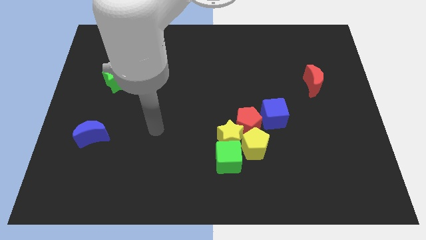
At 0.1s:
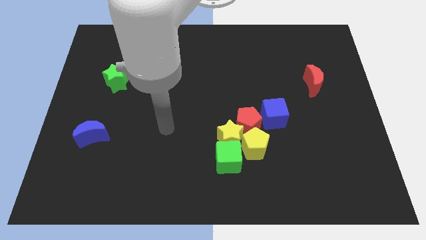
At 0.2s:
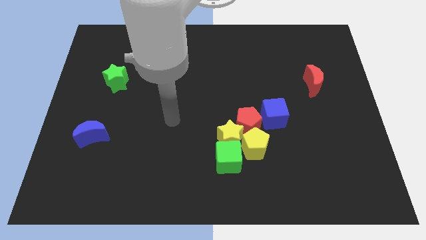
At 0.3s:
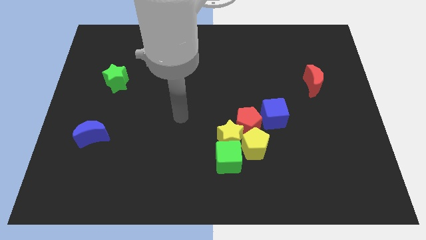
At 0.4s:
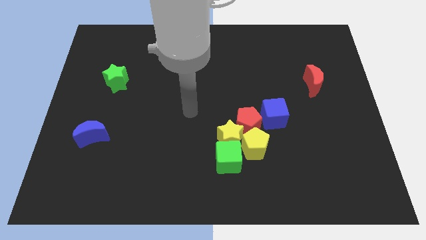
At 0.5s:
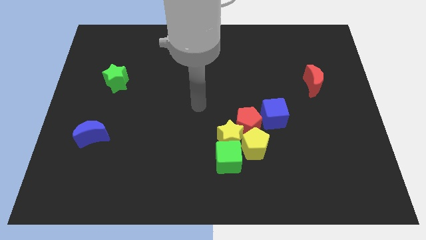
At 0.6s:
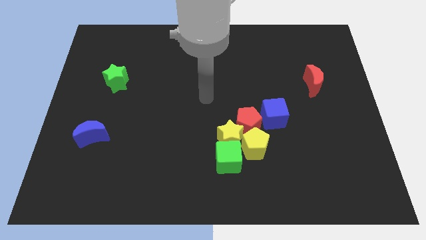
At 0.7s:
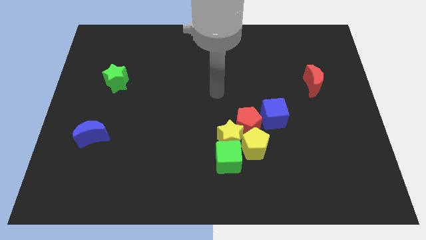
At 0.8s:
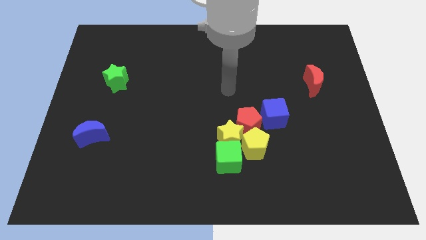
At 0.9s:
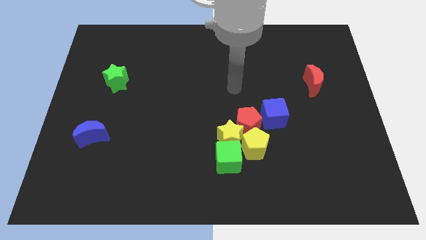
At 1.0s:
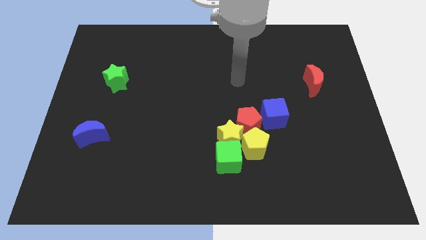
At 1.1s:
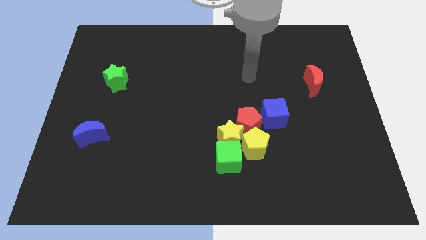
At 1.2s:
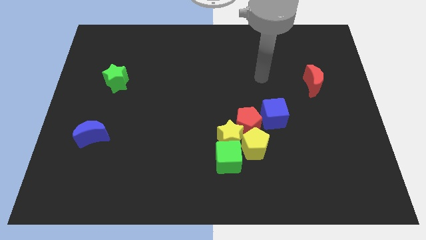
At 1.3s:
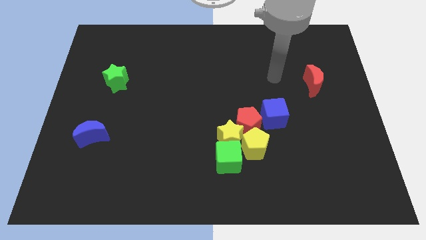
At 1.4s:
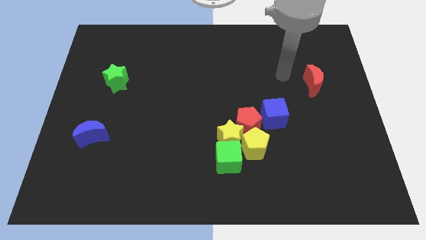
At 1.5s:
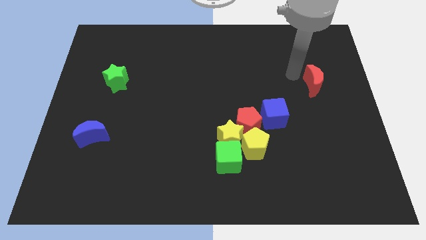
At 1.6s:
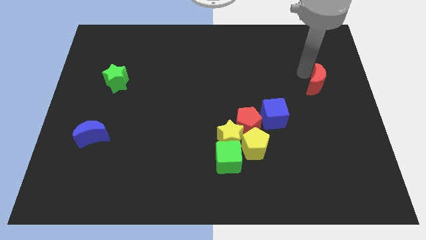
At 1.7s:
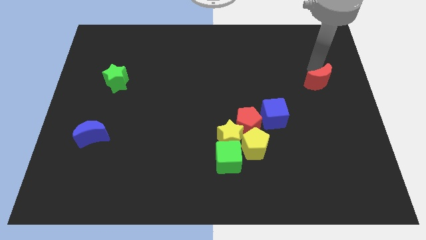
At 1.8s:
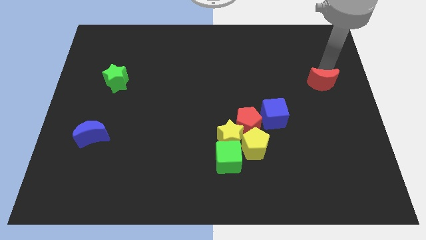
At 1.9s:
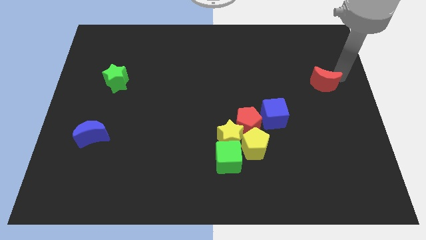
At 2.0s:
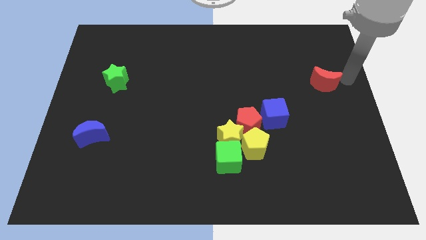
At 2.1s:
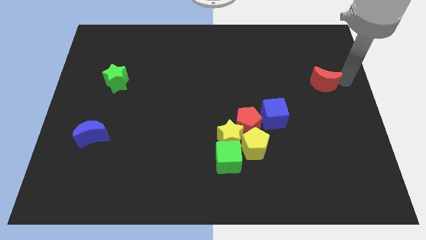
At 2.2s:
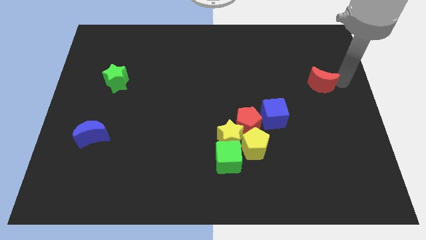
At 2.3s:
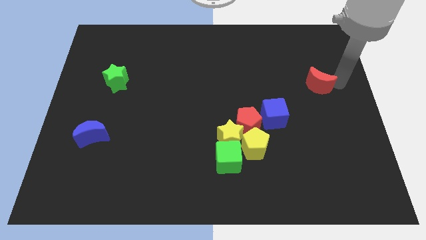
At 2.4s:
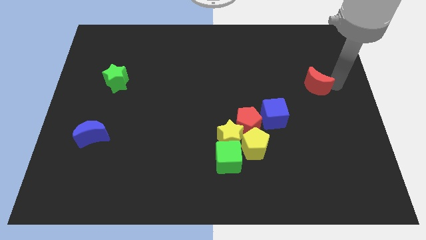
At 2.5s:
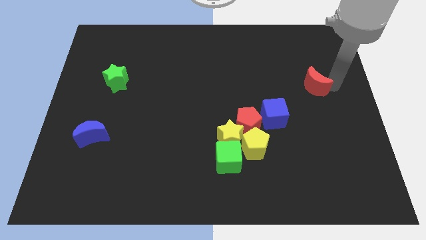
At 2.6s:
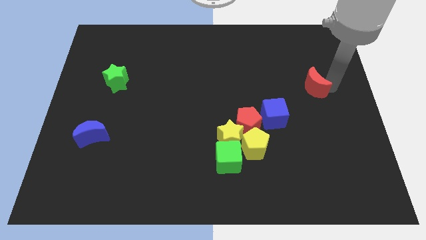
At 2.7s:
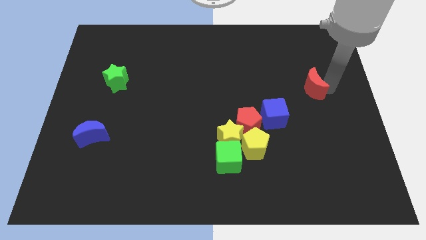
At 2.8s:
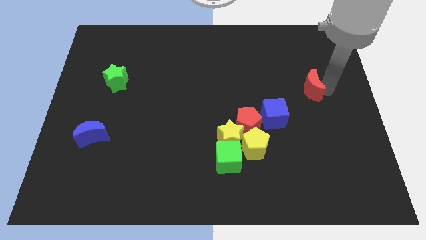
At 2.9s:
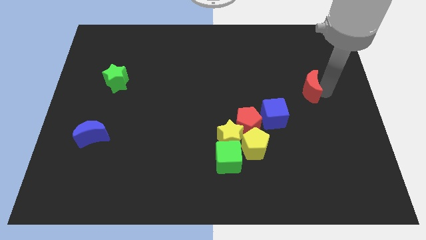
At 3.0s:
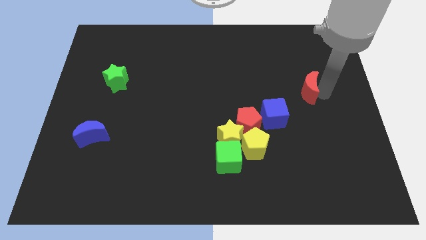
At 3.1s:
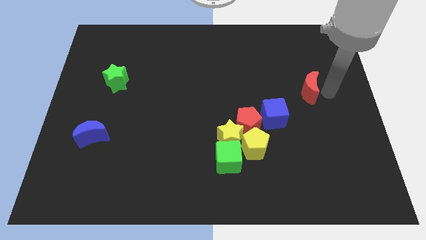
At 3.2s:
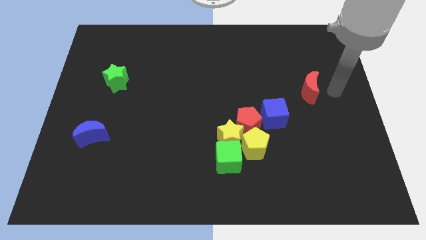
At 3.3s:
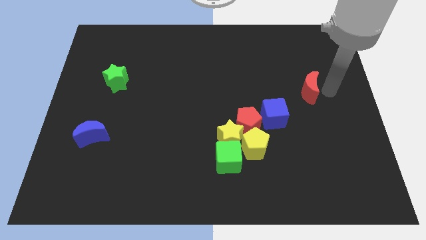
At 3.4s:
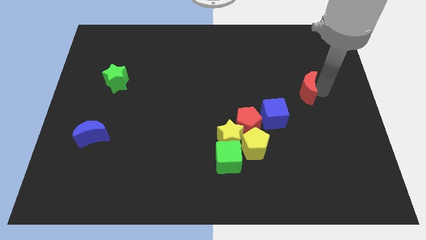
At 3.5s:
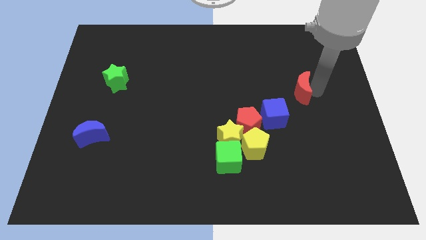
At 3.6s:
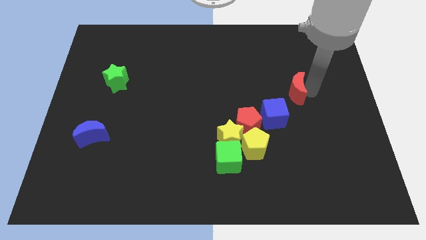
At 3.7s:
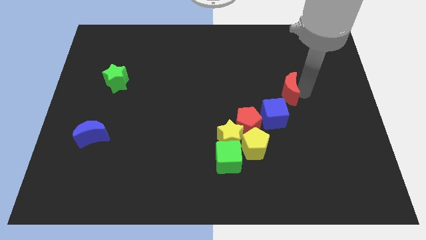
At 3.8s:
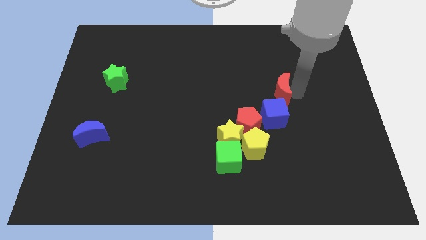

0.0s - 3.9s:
move the red moon to the left somewhat

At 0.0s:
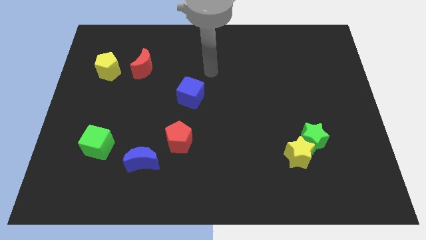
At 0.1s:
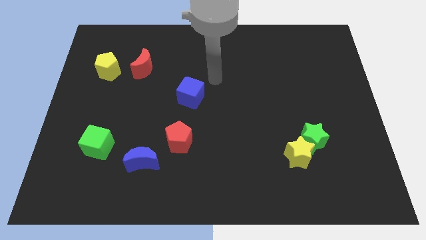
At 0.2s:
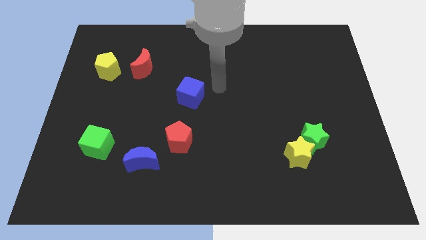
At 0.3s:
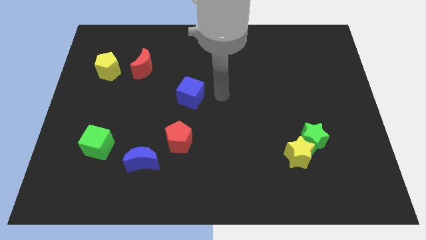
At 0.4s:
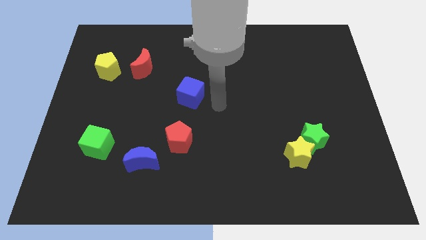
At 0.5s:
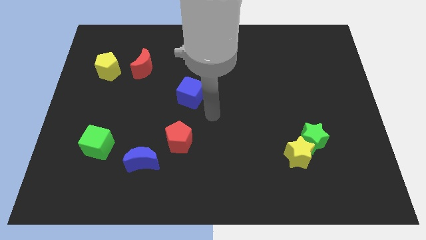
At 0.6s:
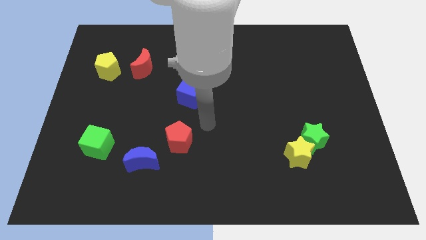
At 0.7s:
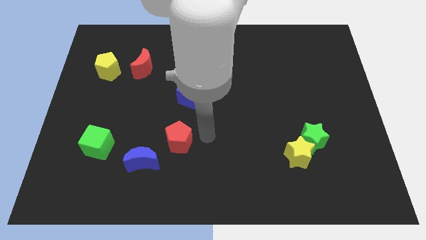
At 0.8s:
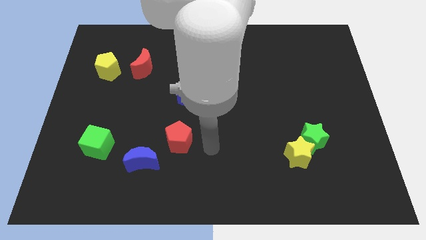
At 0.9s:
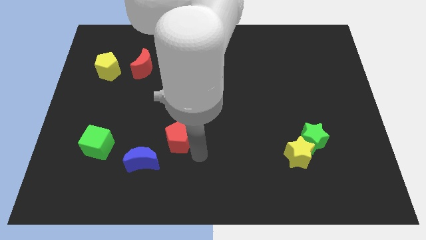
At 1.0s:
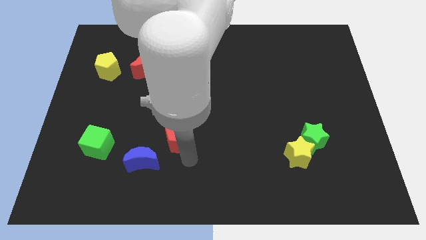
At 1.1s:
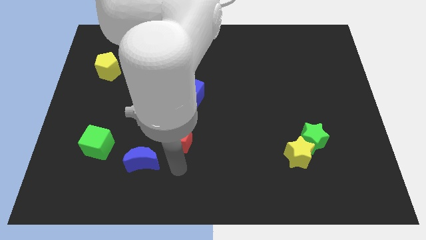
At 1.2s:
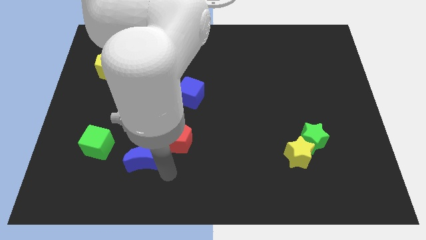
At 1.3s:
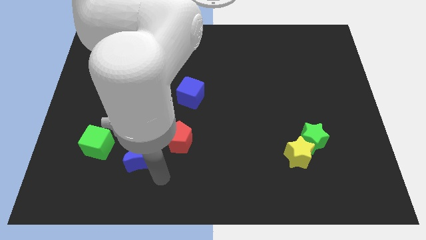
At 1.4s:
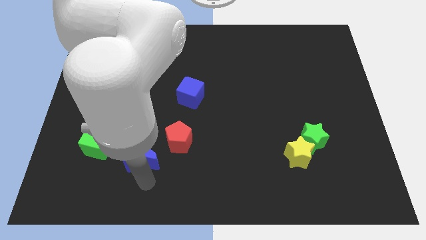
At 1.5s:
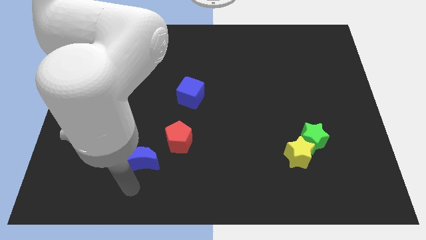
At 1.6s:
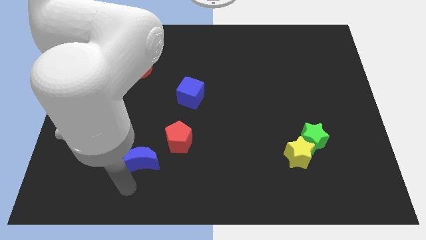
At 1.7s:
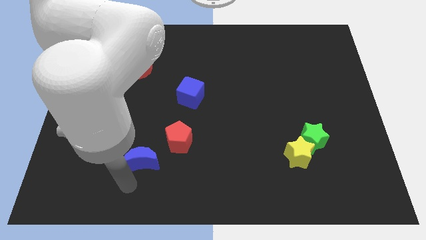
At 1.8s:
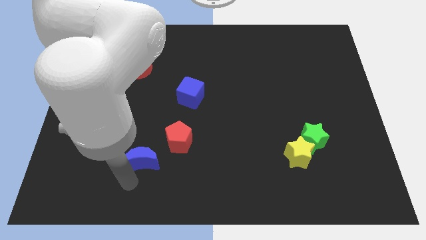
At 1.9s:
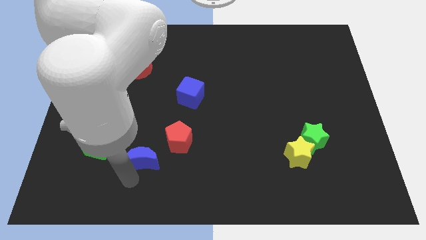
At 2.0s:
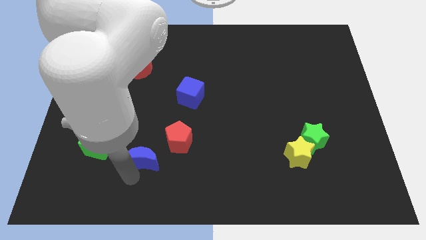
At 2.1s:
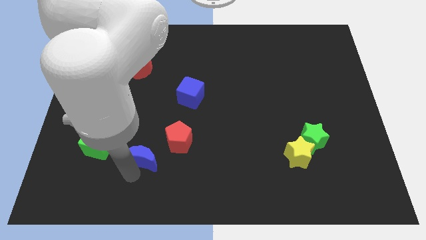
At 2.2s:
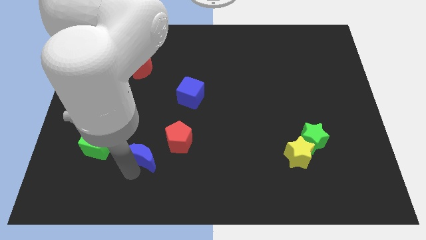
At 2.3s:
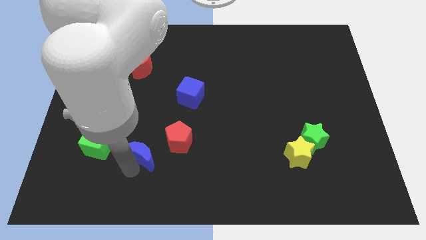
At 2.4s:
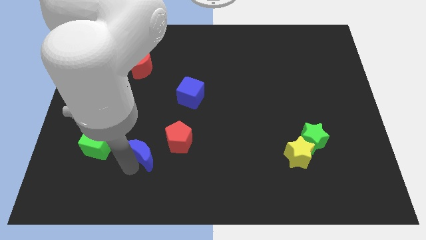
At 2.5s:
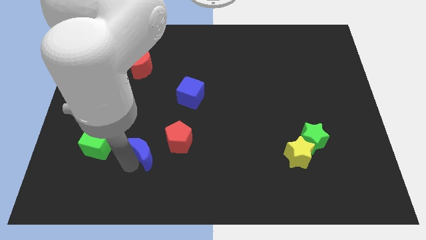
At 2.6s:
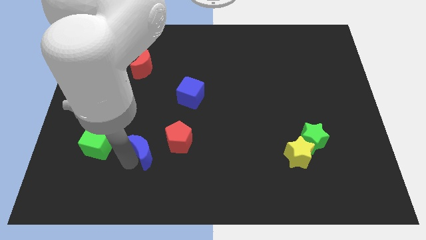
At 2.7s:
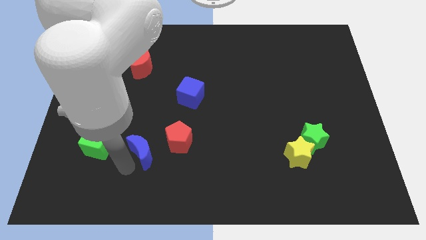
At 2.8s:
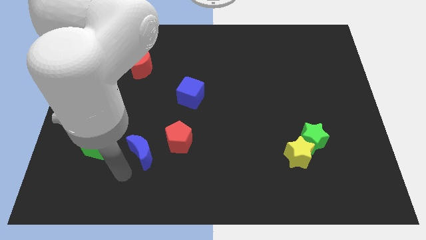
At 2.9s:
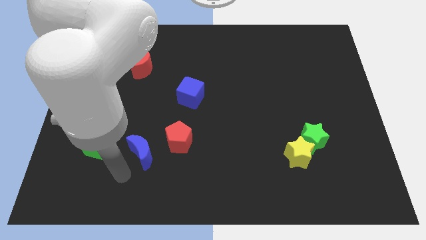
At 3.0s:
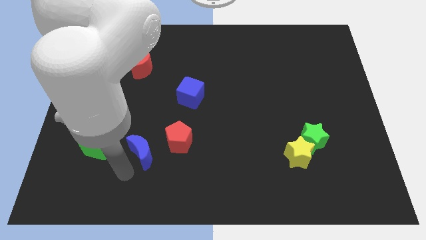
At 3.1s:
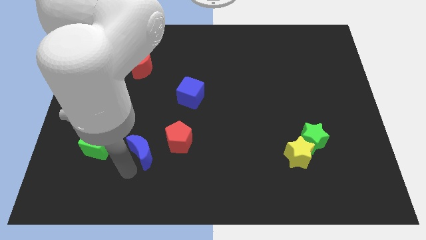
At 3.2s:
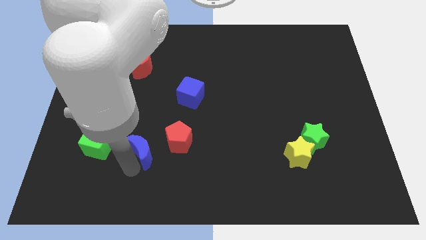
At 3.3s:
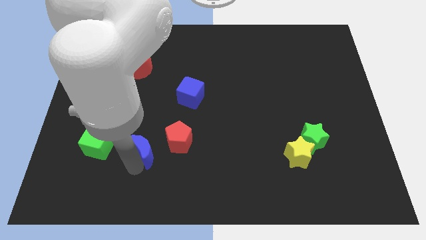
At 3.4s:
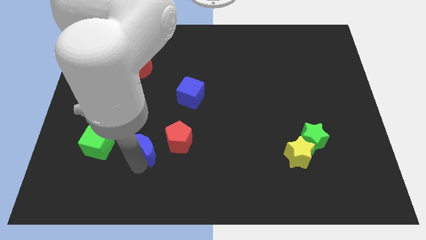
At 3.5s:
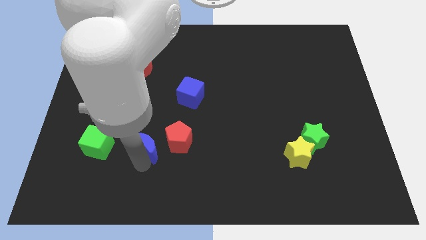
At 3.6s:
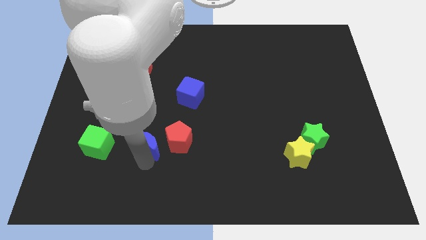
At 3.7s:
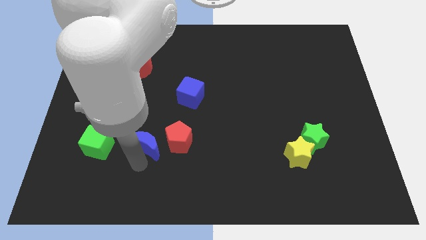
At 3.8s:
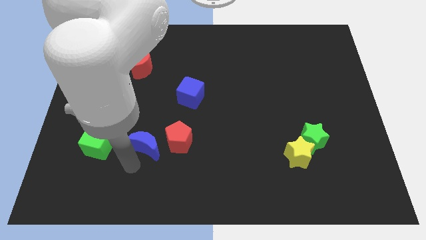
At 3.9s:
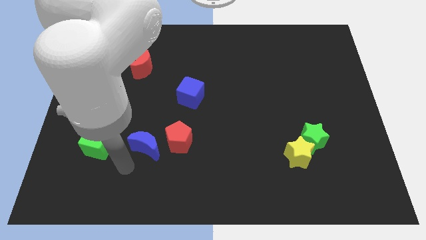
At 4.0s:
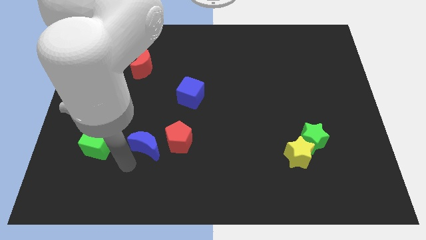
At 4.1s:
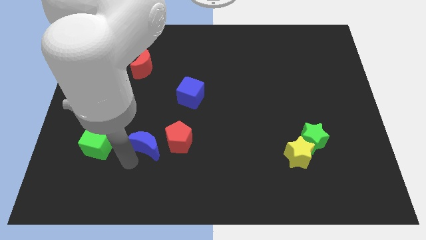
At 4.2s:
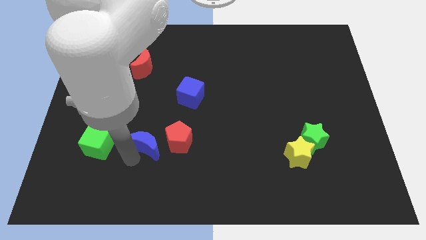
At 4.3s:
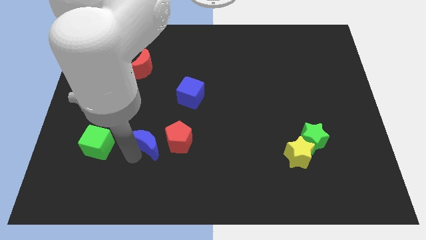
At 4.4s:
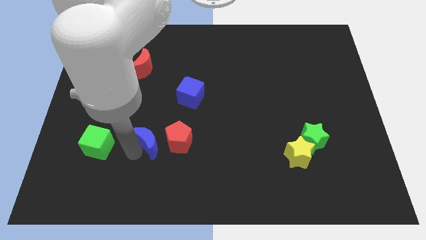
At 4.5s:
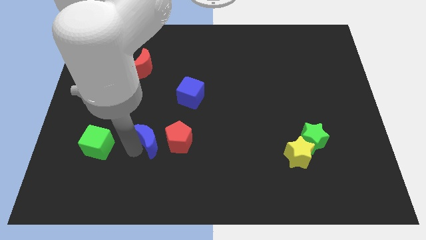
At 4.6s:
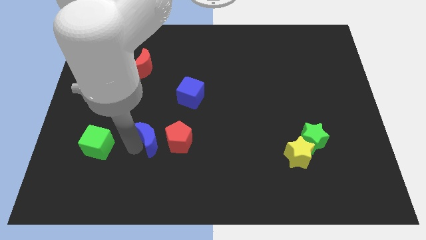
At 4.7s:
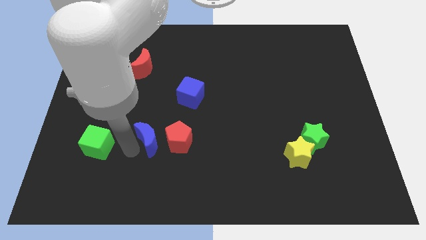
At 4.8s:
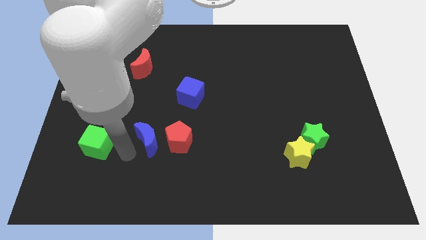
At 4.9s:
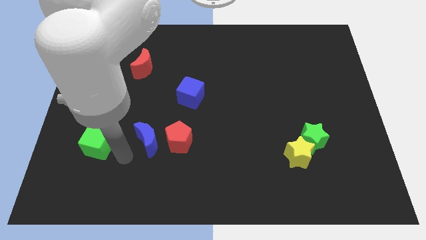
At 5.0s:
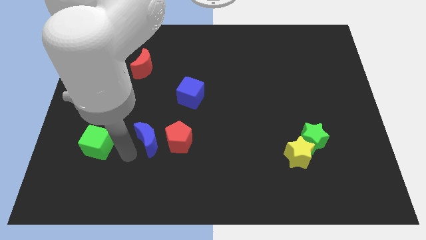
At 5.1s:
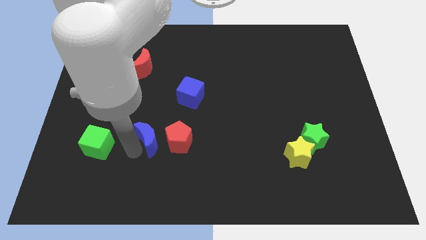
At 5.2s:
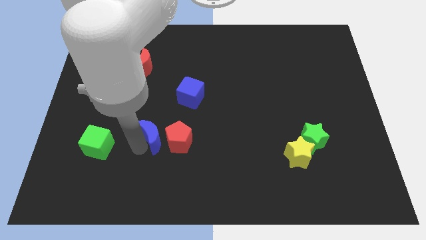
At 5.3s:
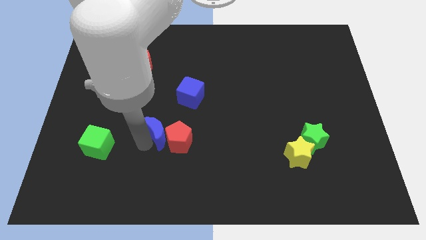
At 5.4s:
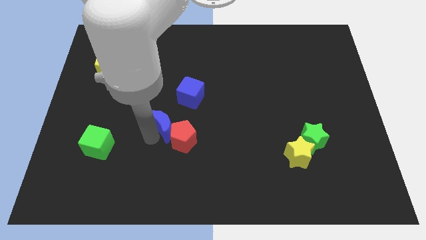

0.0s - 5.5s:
slightly move the blue moon up and then to the right
